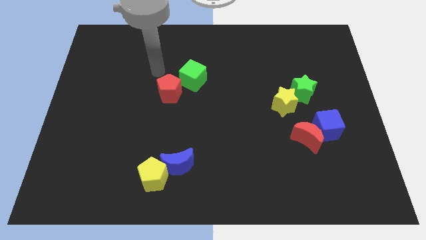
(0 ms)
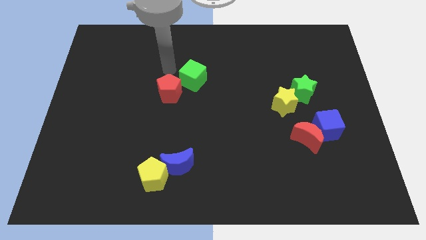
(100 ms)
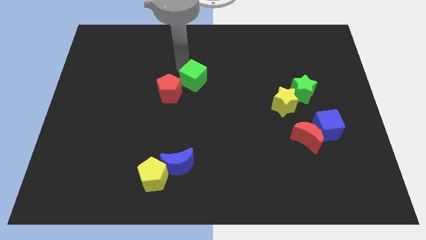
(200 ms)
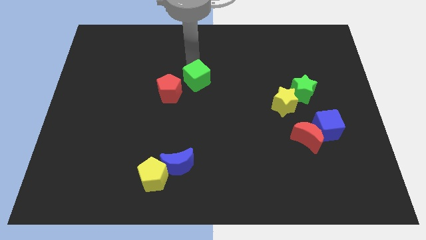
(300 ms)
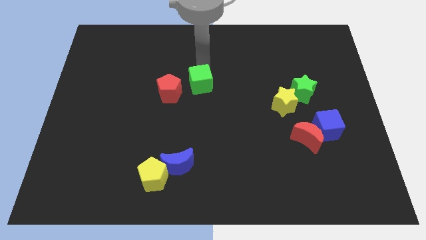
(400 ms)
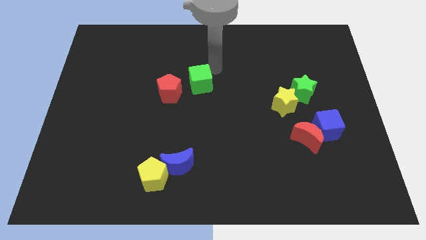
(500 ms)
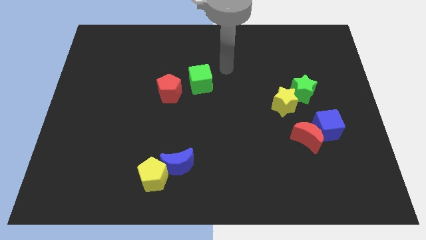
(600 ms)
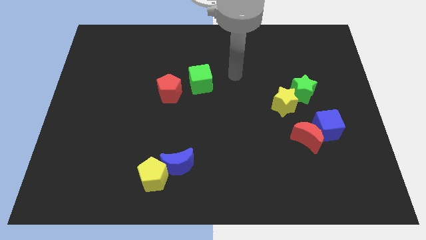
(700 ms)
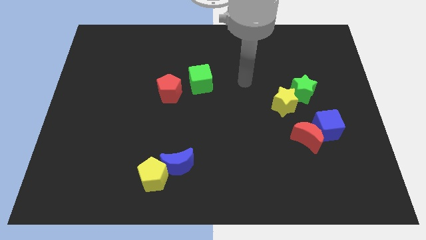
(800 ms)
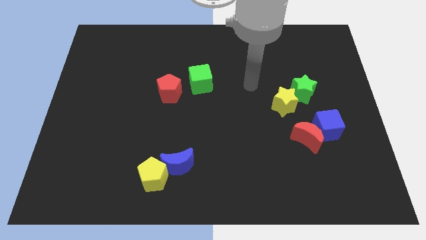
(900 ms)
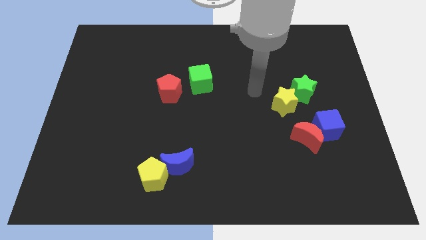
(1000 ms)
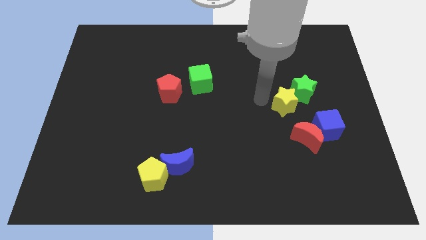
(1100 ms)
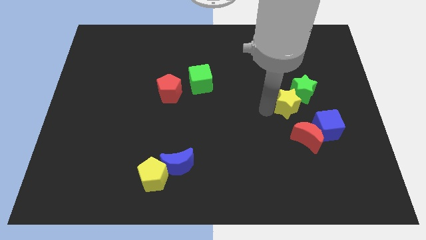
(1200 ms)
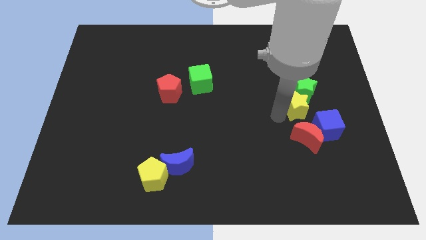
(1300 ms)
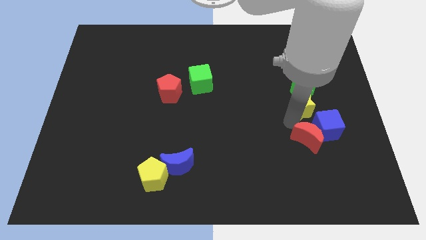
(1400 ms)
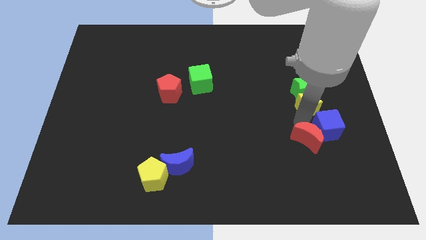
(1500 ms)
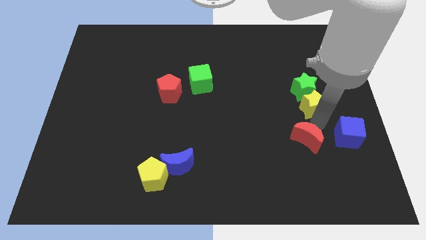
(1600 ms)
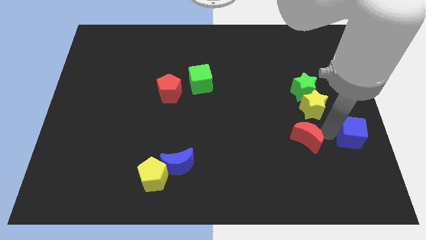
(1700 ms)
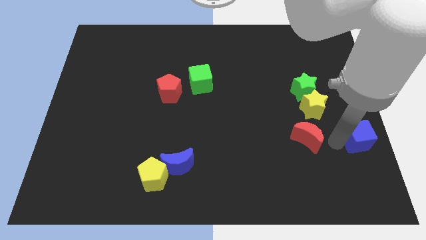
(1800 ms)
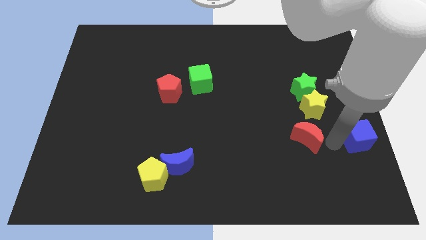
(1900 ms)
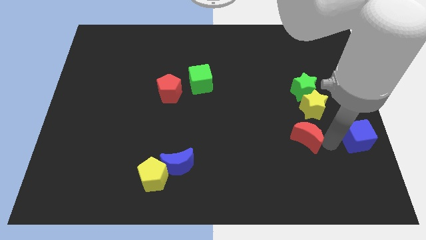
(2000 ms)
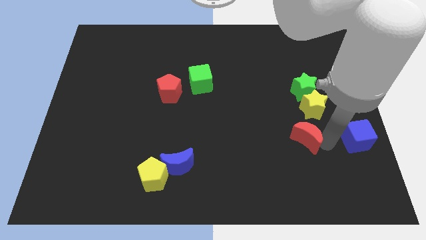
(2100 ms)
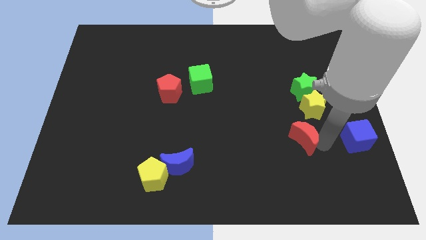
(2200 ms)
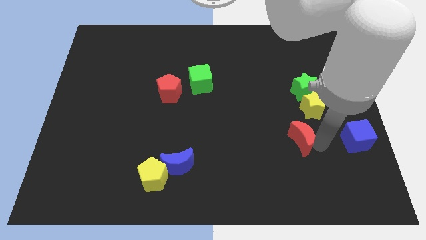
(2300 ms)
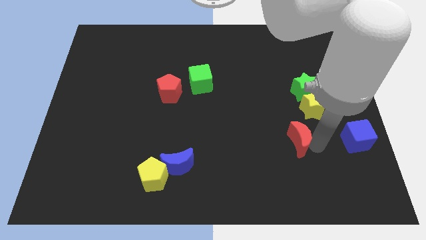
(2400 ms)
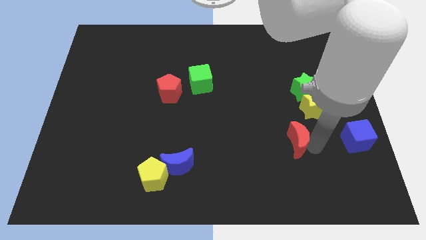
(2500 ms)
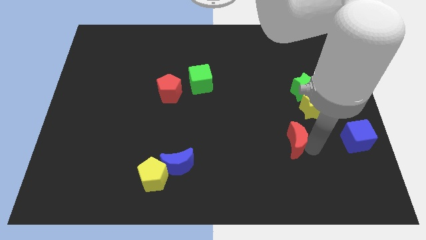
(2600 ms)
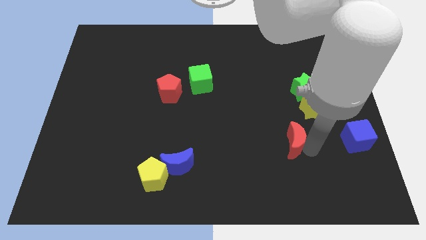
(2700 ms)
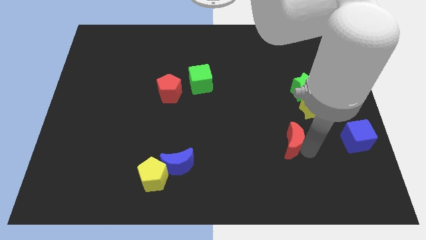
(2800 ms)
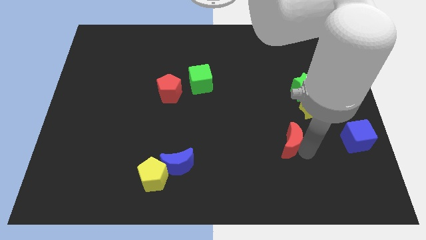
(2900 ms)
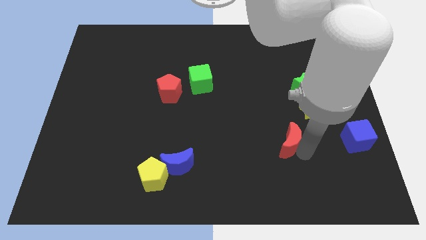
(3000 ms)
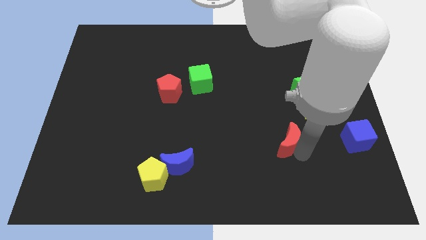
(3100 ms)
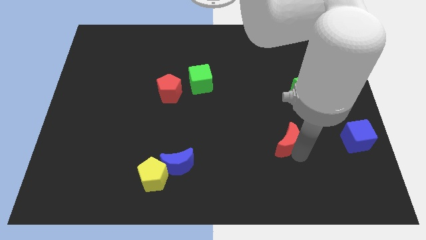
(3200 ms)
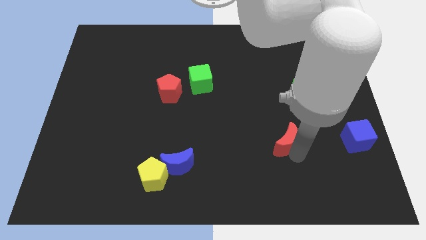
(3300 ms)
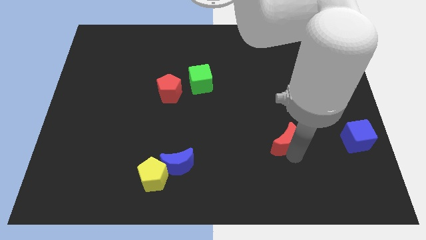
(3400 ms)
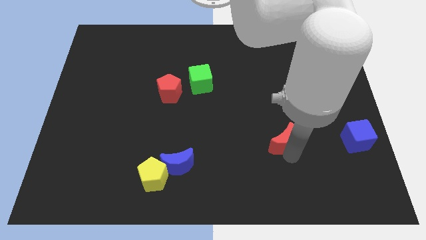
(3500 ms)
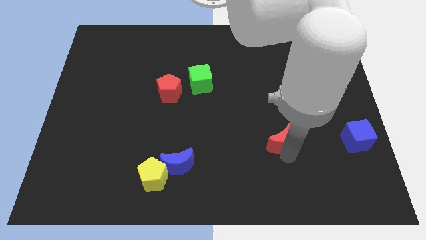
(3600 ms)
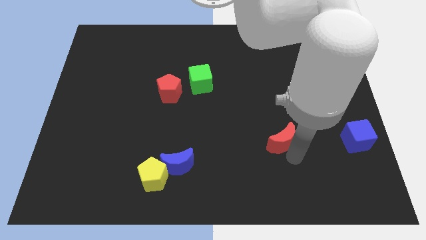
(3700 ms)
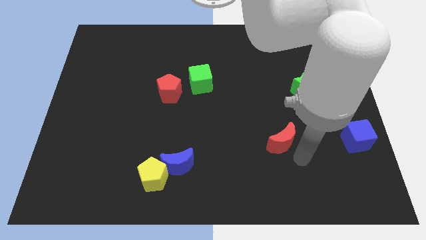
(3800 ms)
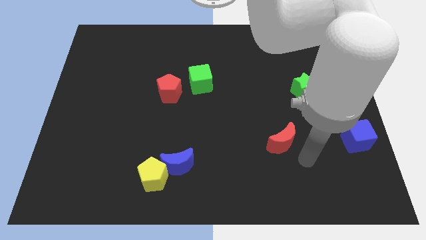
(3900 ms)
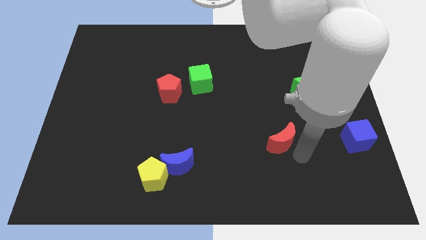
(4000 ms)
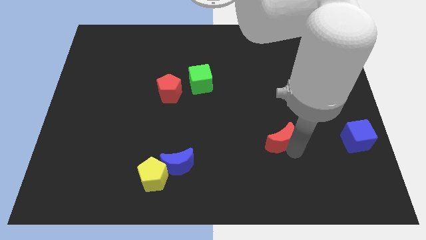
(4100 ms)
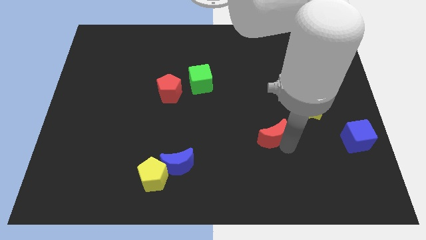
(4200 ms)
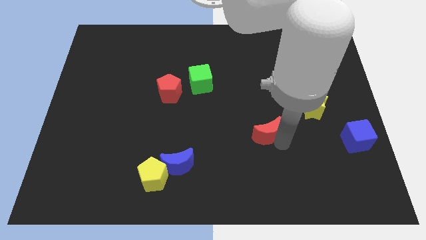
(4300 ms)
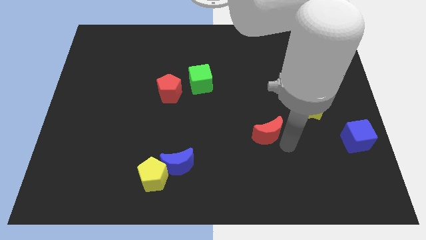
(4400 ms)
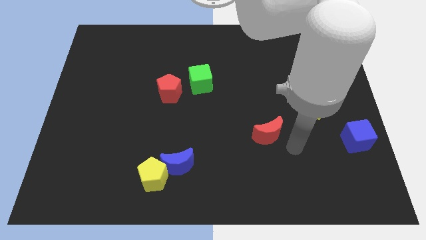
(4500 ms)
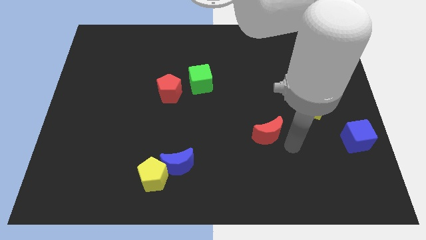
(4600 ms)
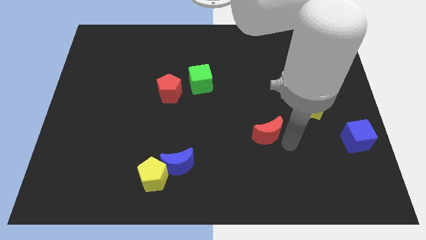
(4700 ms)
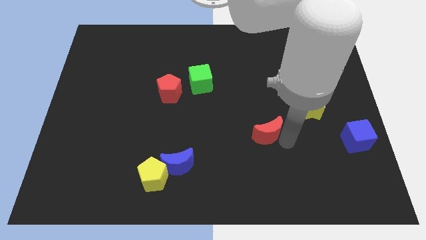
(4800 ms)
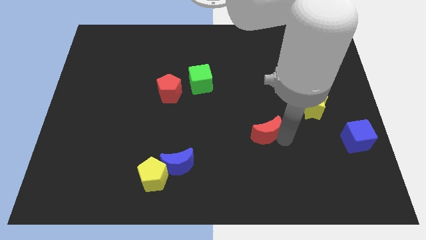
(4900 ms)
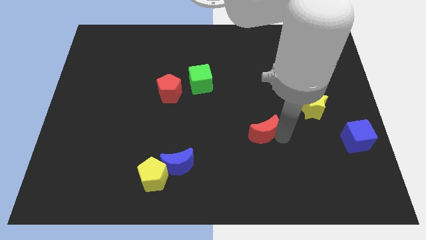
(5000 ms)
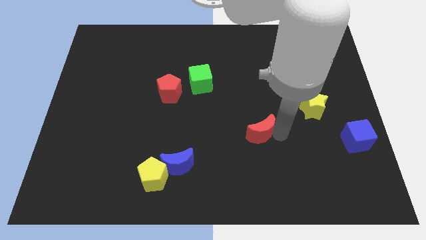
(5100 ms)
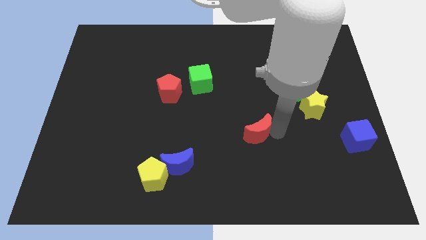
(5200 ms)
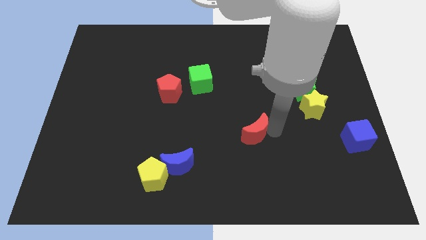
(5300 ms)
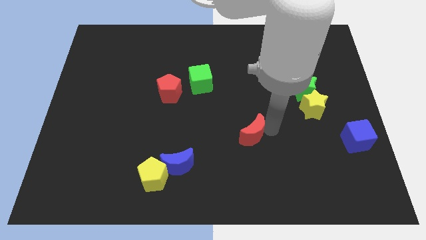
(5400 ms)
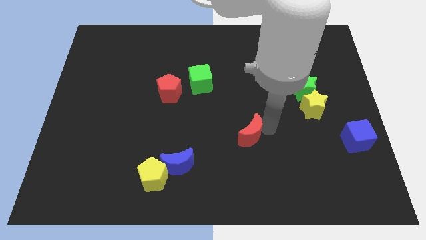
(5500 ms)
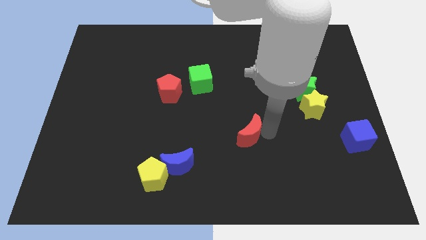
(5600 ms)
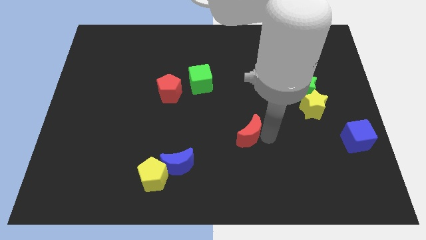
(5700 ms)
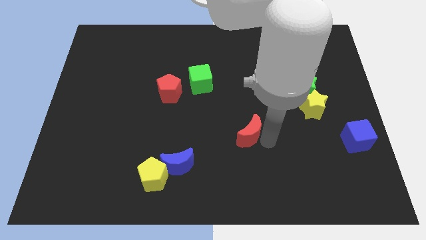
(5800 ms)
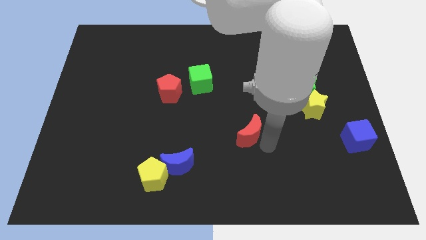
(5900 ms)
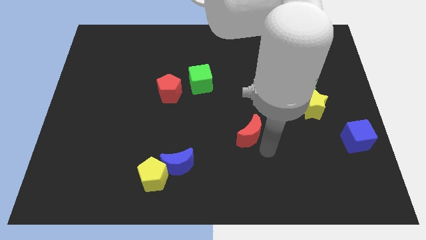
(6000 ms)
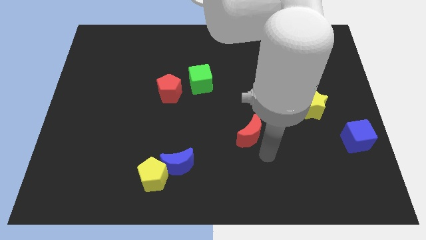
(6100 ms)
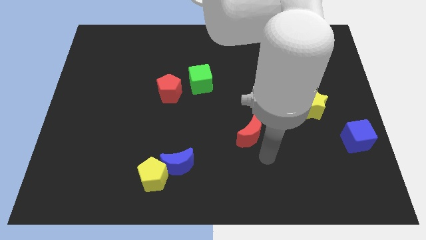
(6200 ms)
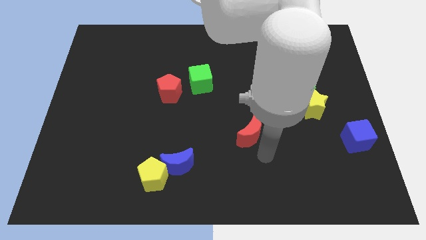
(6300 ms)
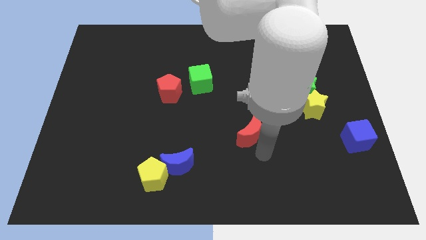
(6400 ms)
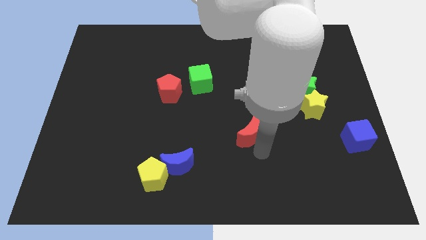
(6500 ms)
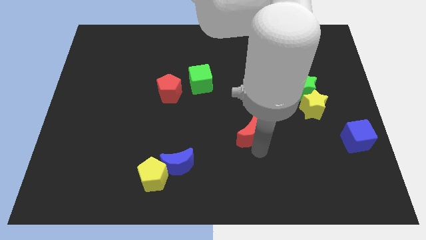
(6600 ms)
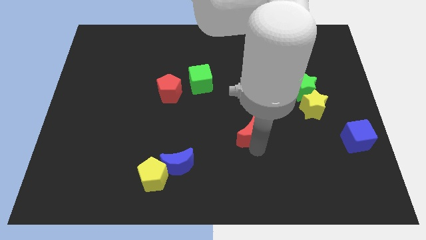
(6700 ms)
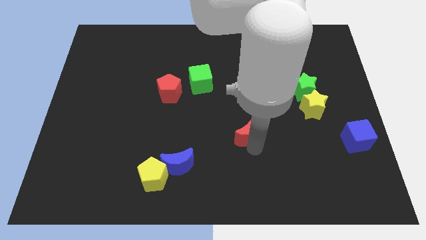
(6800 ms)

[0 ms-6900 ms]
slide the red moon to the middle
